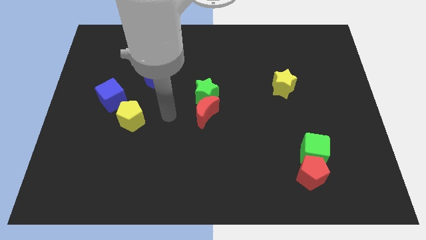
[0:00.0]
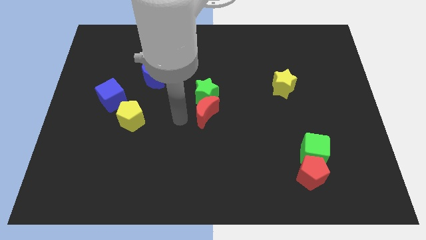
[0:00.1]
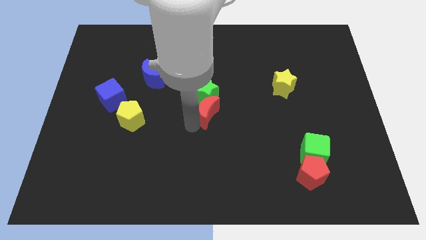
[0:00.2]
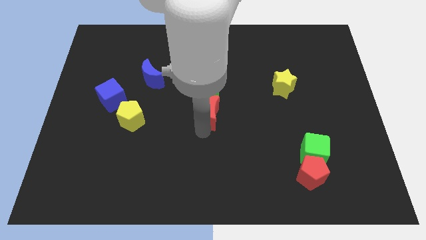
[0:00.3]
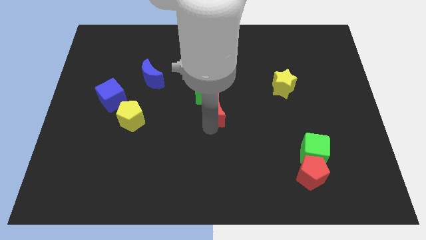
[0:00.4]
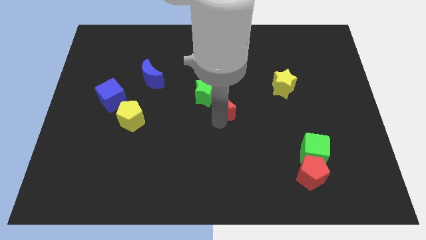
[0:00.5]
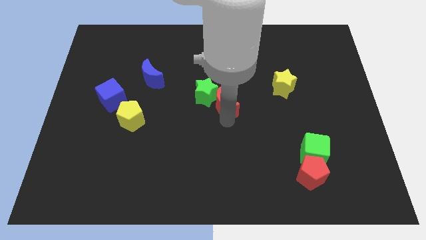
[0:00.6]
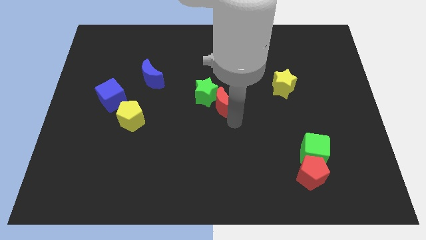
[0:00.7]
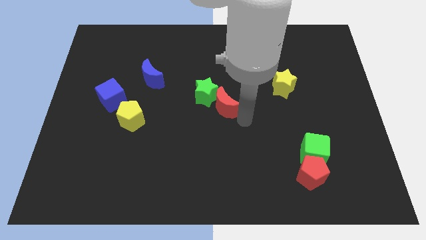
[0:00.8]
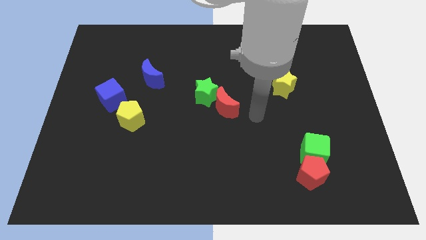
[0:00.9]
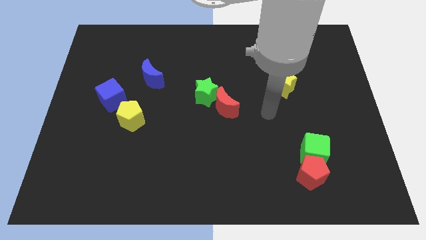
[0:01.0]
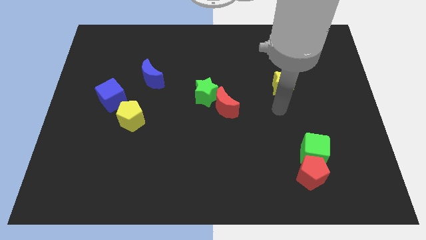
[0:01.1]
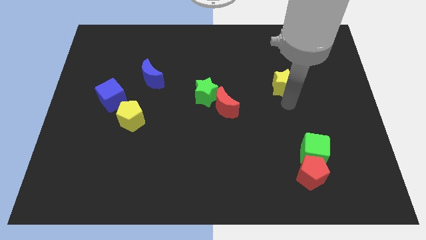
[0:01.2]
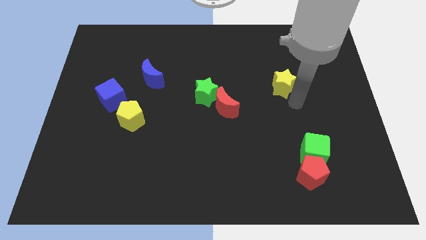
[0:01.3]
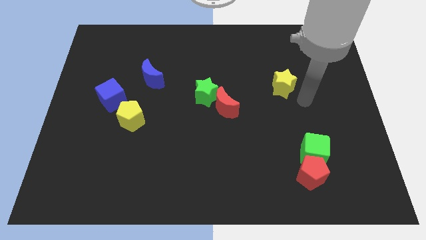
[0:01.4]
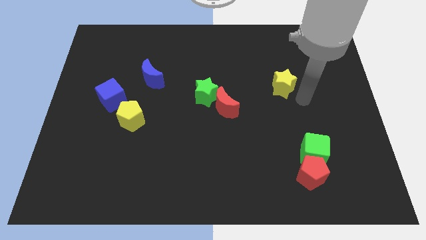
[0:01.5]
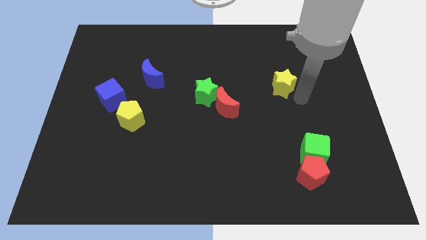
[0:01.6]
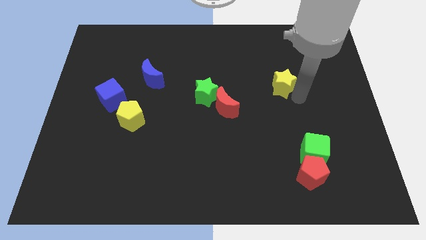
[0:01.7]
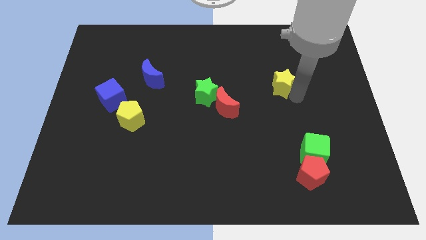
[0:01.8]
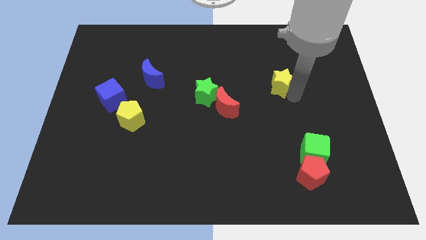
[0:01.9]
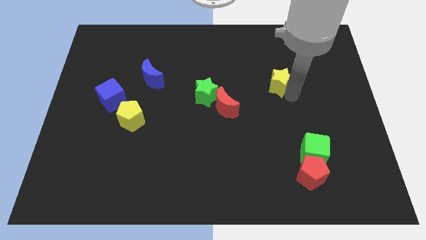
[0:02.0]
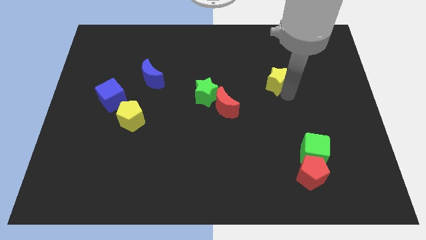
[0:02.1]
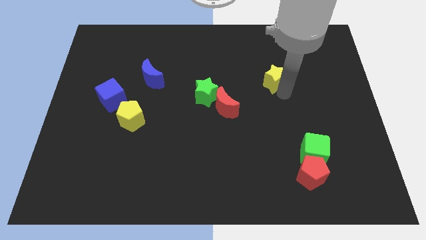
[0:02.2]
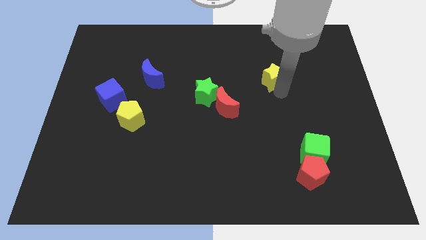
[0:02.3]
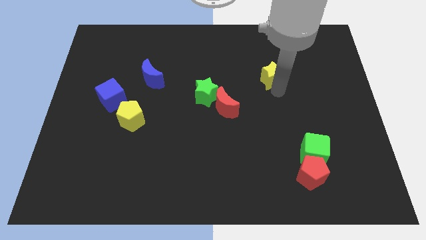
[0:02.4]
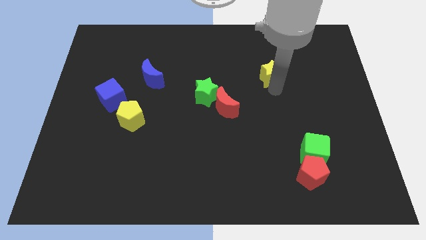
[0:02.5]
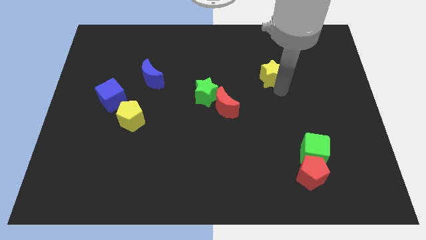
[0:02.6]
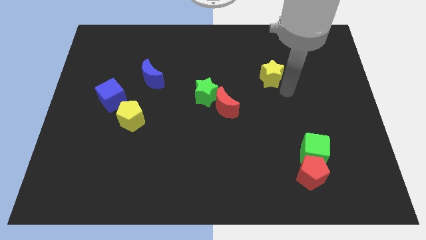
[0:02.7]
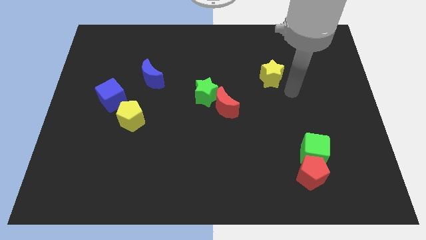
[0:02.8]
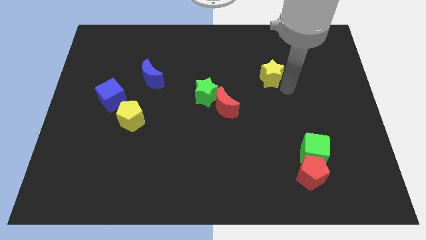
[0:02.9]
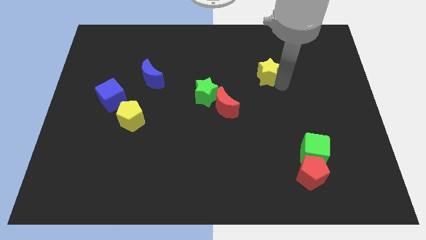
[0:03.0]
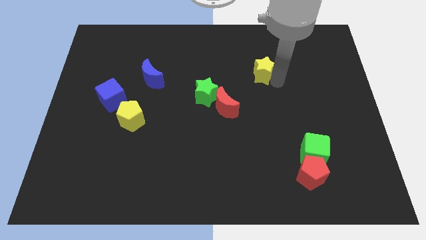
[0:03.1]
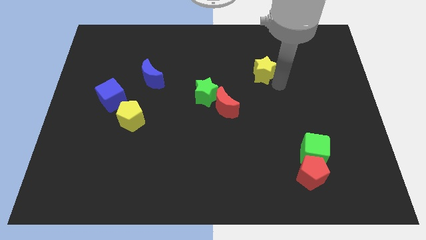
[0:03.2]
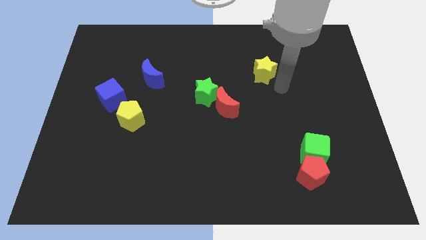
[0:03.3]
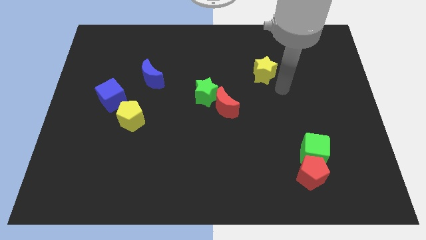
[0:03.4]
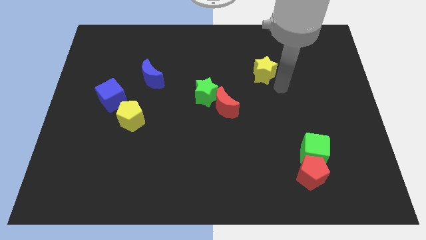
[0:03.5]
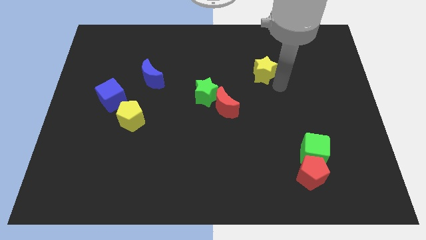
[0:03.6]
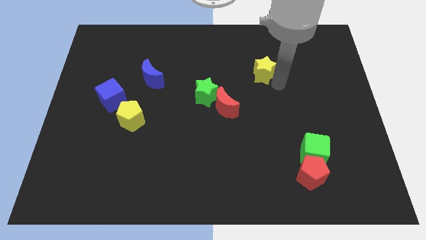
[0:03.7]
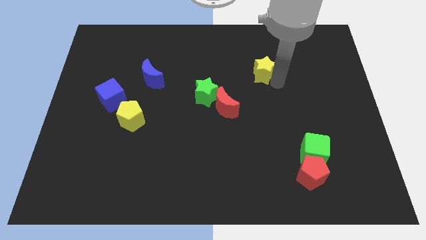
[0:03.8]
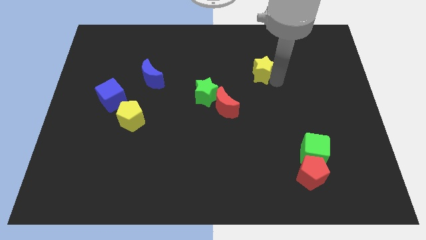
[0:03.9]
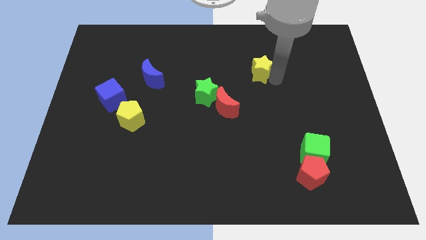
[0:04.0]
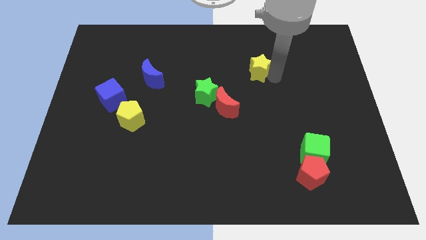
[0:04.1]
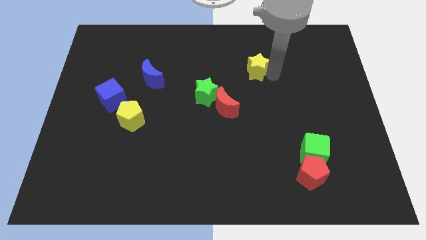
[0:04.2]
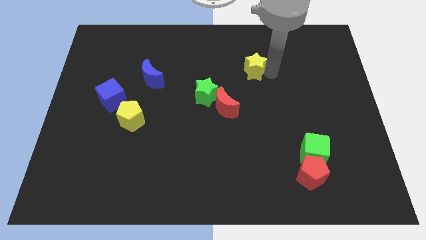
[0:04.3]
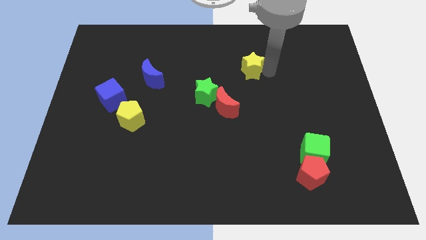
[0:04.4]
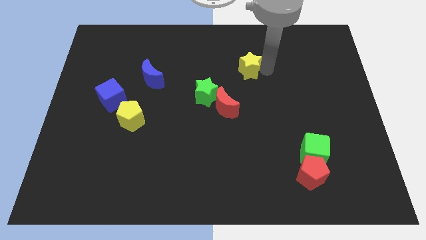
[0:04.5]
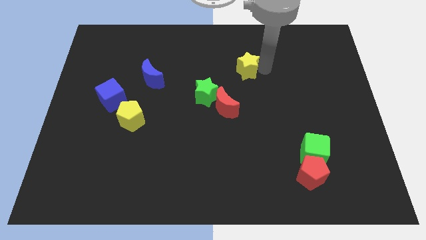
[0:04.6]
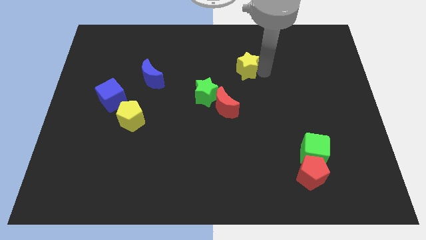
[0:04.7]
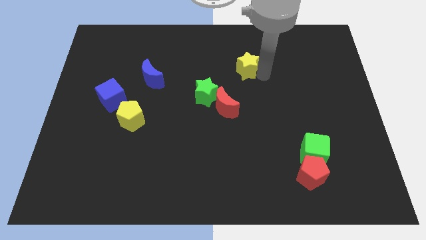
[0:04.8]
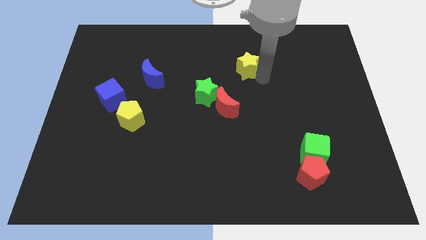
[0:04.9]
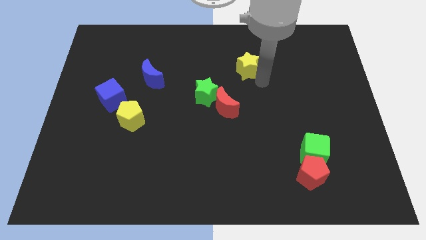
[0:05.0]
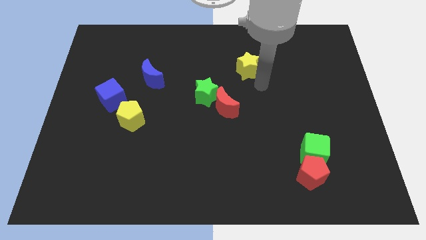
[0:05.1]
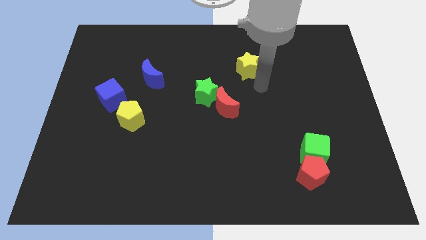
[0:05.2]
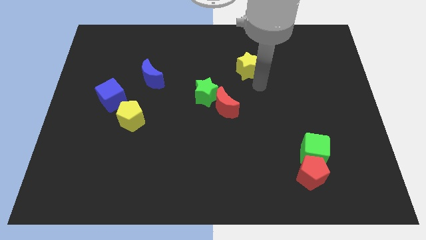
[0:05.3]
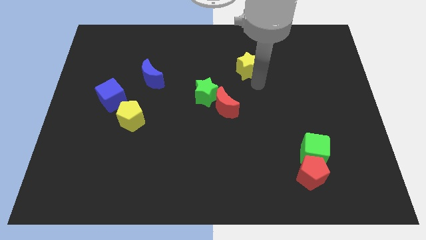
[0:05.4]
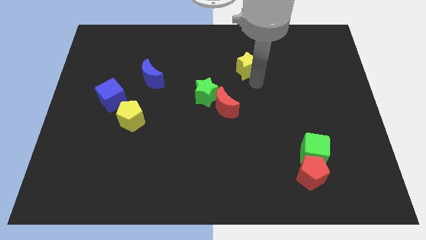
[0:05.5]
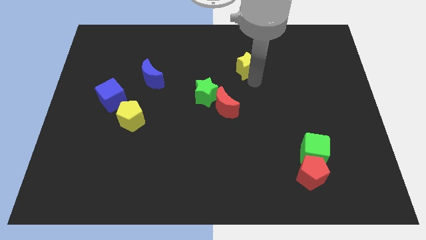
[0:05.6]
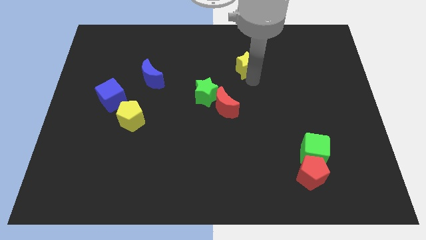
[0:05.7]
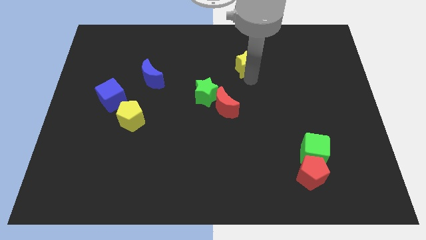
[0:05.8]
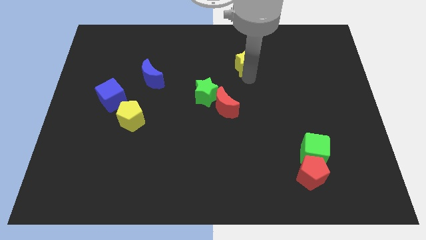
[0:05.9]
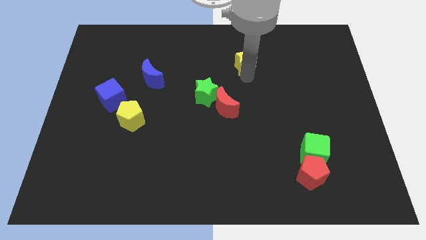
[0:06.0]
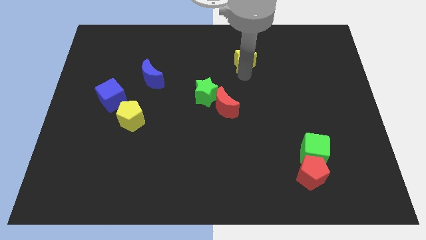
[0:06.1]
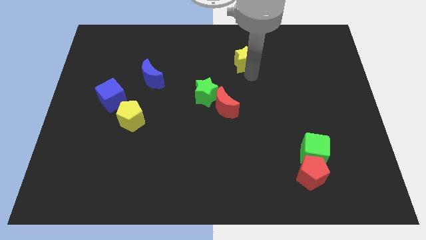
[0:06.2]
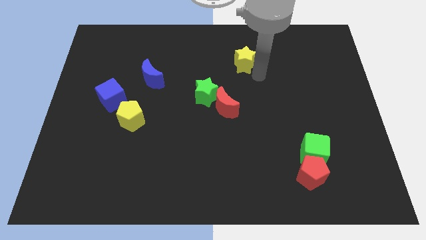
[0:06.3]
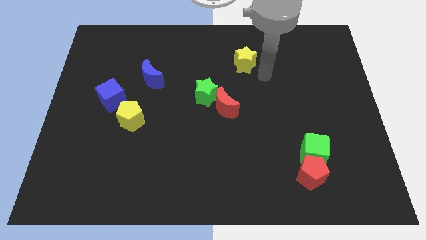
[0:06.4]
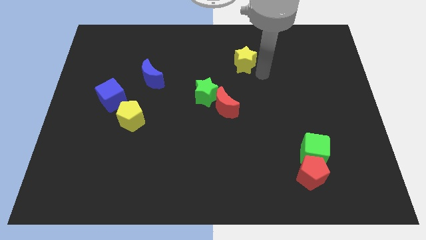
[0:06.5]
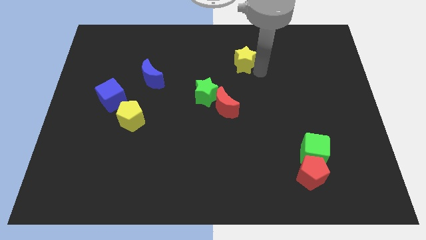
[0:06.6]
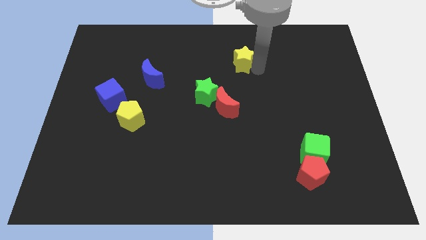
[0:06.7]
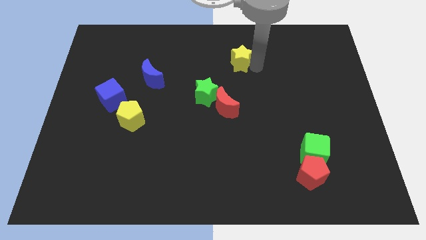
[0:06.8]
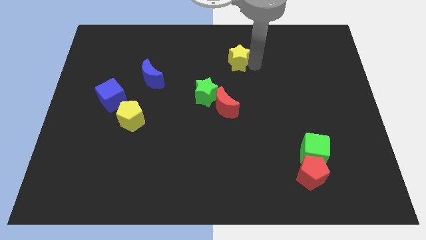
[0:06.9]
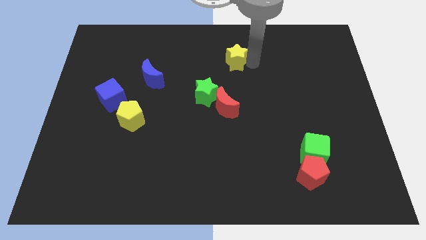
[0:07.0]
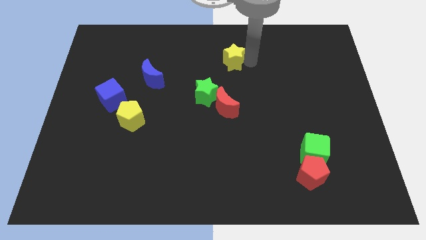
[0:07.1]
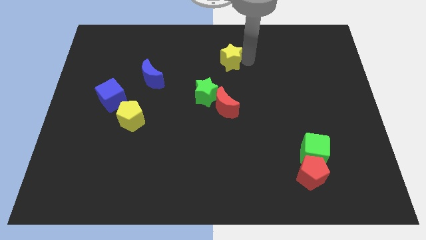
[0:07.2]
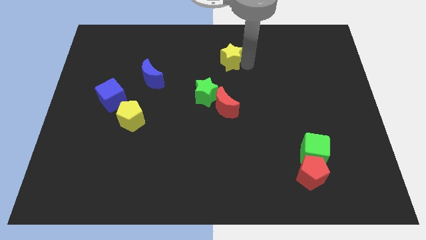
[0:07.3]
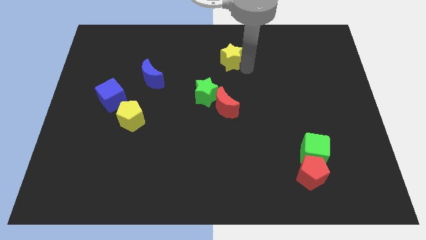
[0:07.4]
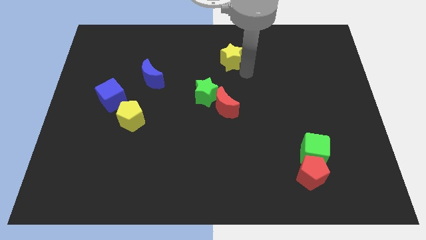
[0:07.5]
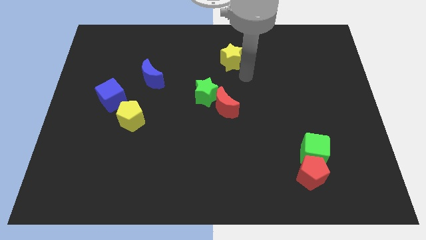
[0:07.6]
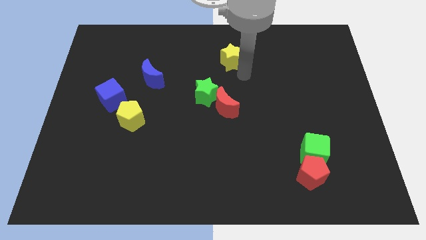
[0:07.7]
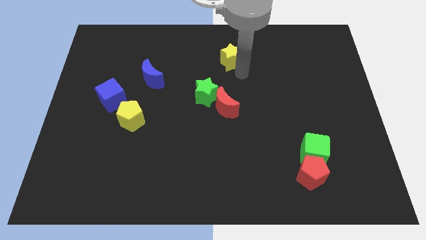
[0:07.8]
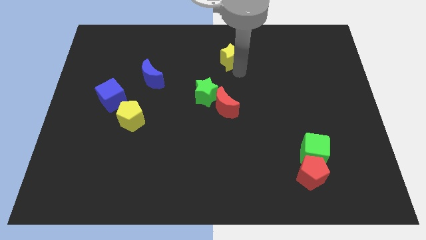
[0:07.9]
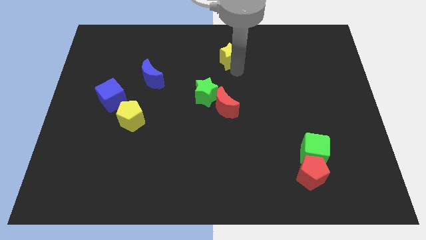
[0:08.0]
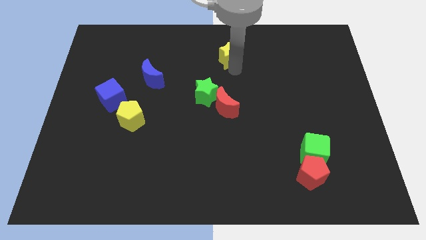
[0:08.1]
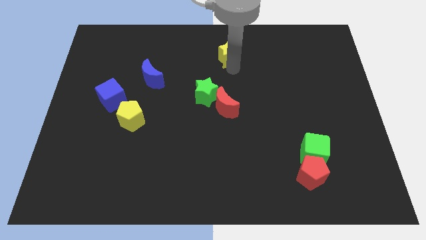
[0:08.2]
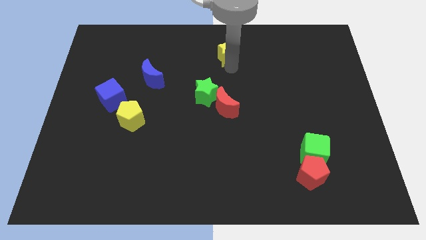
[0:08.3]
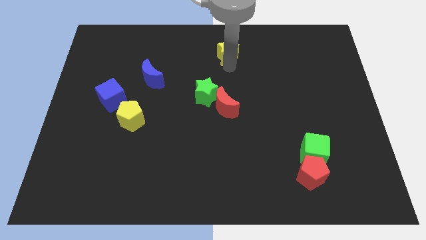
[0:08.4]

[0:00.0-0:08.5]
slide the yellow star to the top
